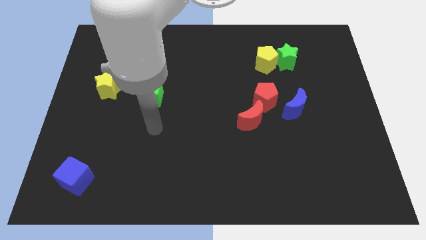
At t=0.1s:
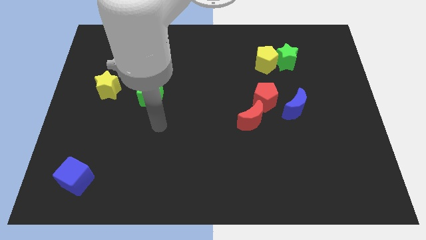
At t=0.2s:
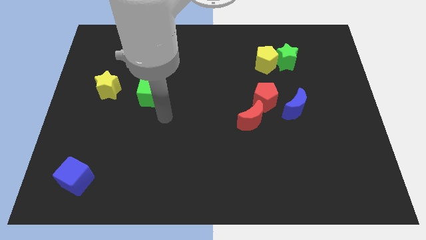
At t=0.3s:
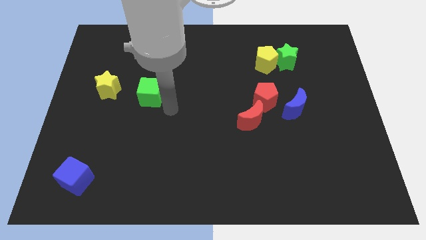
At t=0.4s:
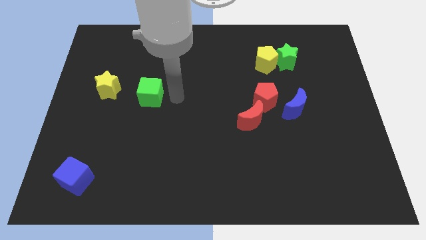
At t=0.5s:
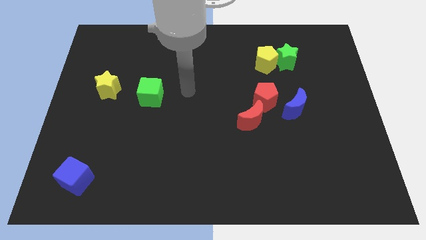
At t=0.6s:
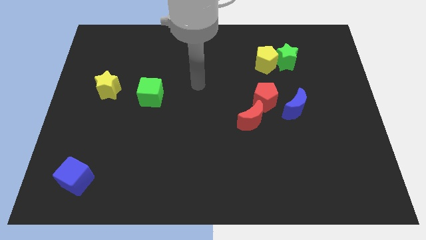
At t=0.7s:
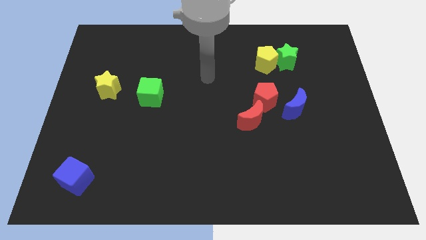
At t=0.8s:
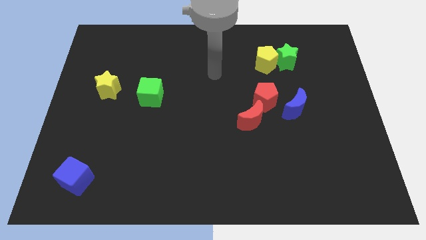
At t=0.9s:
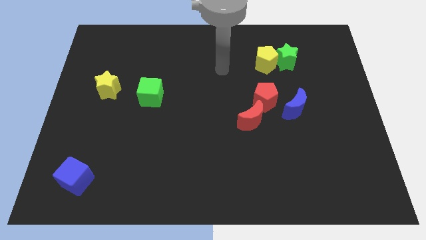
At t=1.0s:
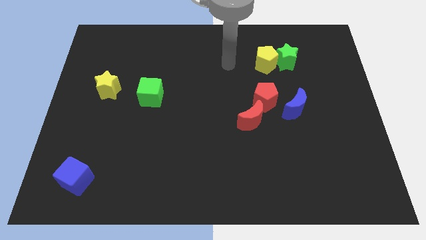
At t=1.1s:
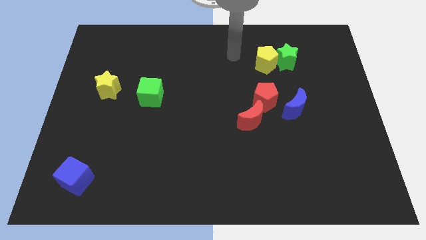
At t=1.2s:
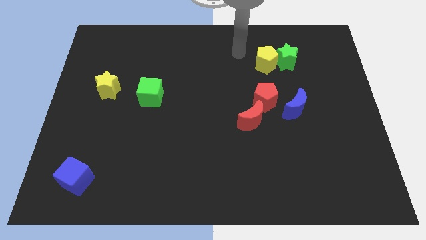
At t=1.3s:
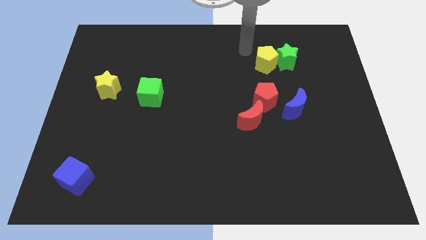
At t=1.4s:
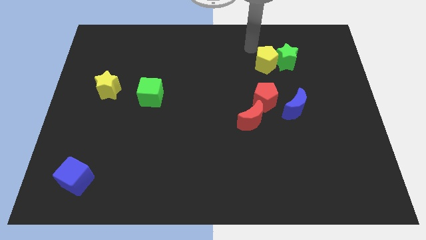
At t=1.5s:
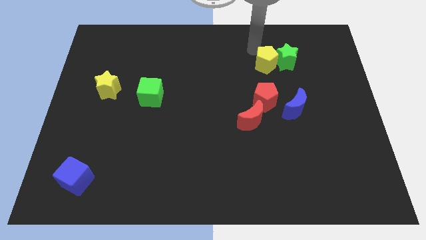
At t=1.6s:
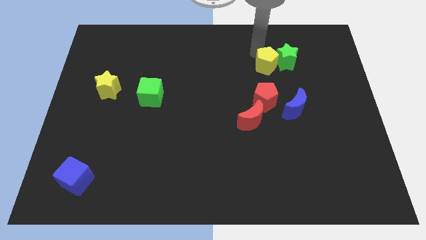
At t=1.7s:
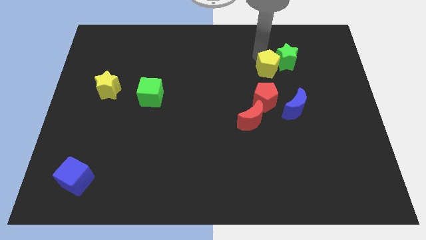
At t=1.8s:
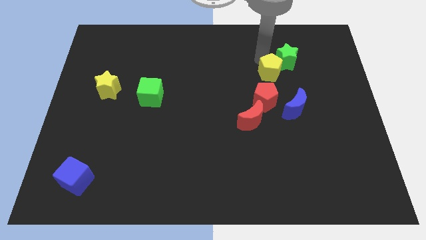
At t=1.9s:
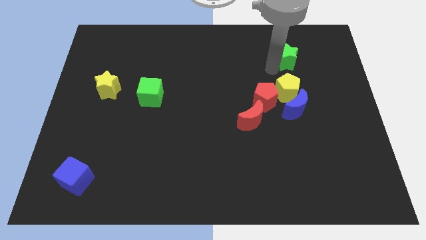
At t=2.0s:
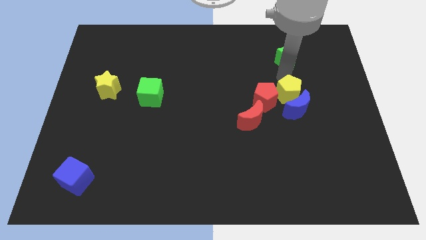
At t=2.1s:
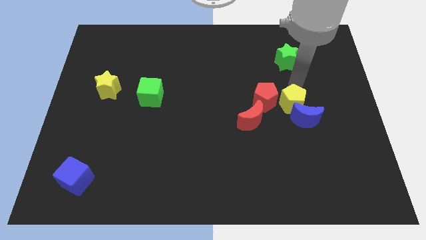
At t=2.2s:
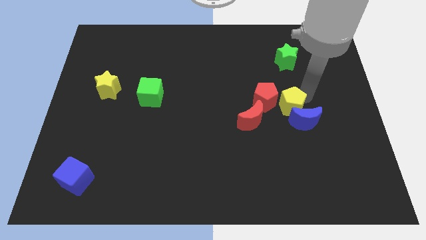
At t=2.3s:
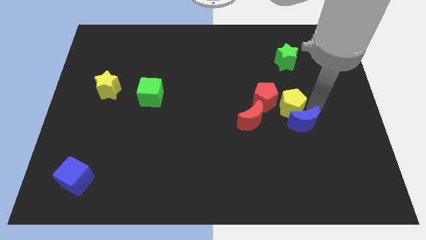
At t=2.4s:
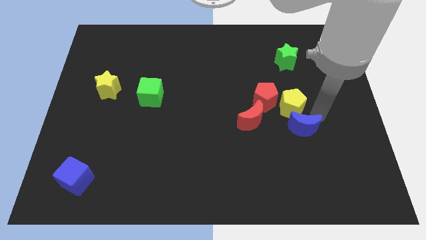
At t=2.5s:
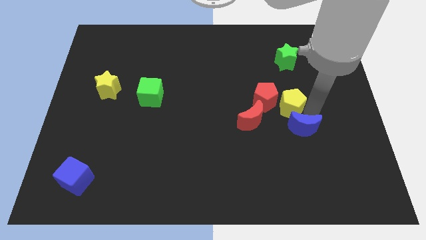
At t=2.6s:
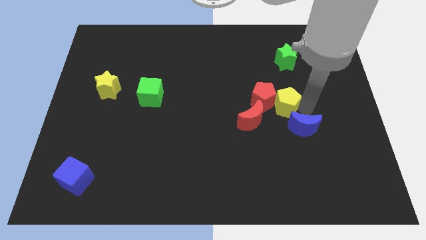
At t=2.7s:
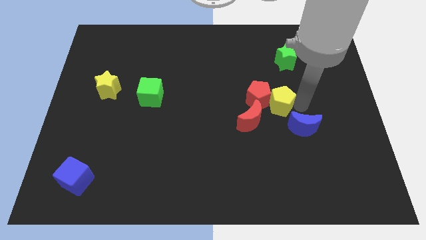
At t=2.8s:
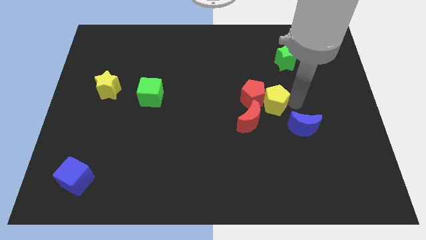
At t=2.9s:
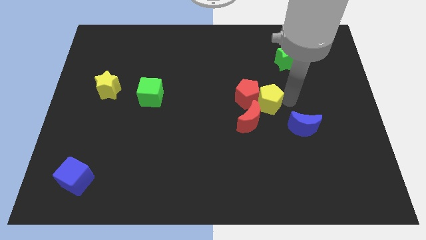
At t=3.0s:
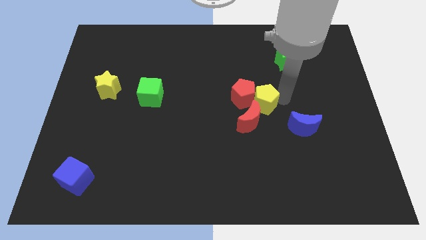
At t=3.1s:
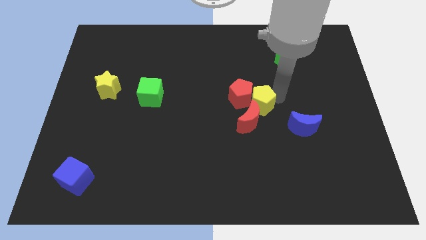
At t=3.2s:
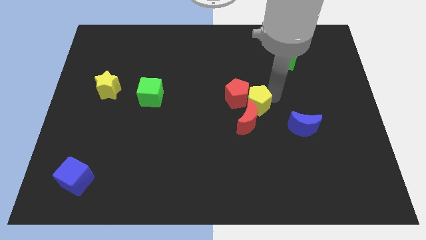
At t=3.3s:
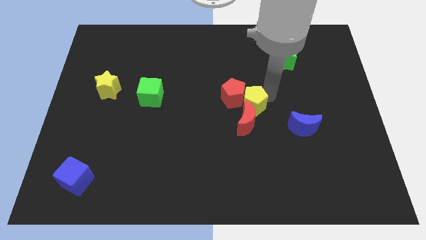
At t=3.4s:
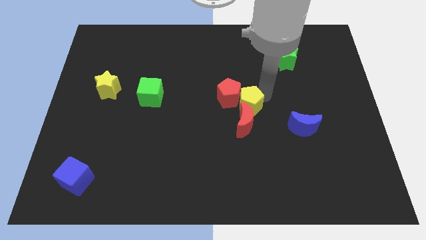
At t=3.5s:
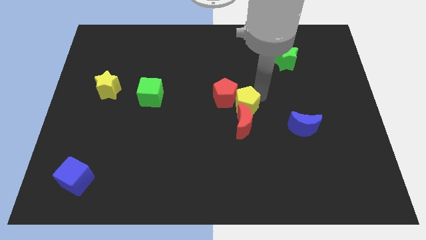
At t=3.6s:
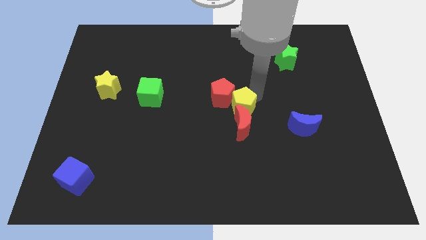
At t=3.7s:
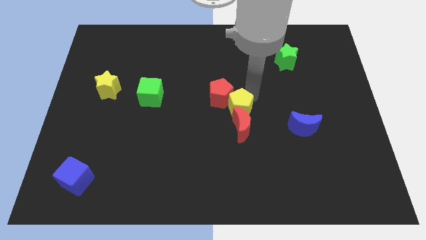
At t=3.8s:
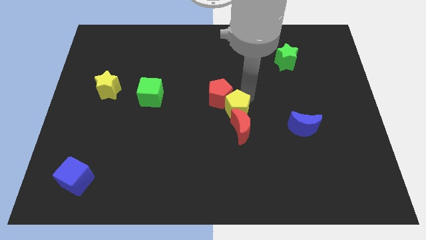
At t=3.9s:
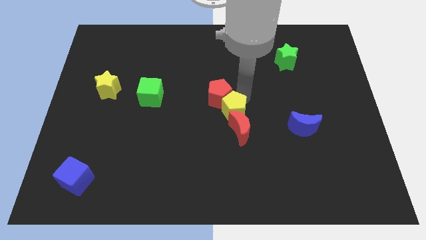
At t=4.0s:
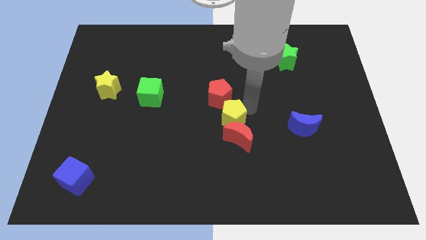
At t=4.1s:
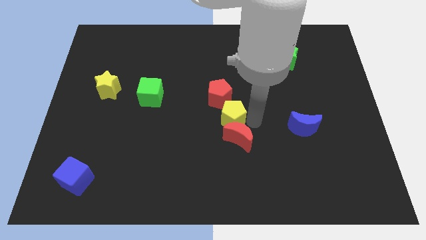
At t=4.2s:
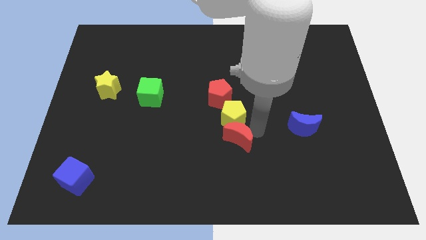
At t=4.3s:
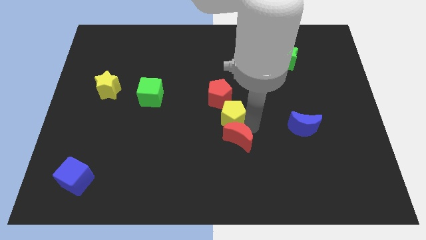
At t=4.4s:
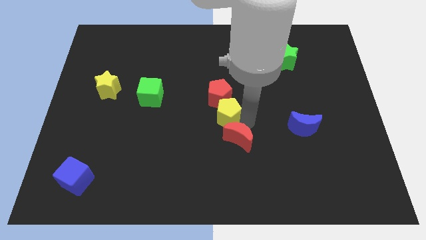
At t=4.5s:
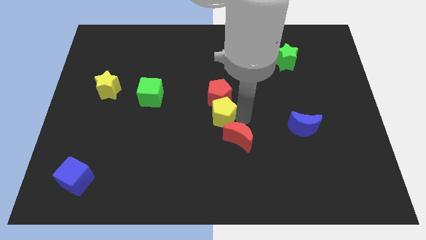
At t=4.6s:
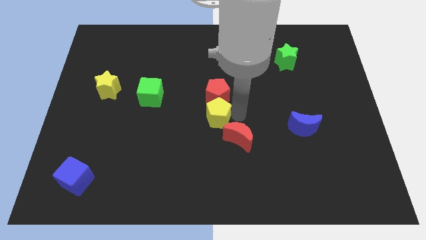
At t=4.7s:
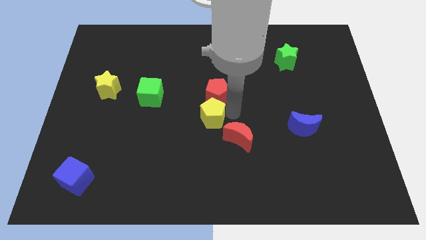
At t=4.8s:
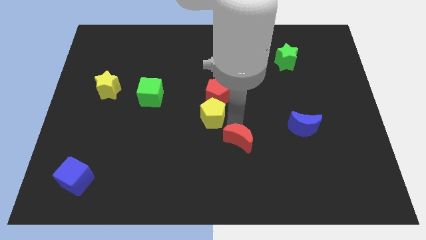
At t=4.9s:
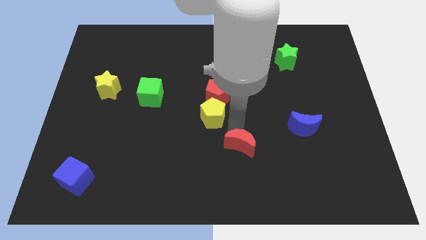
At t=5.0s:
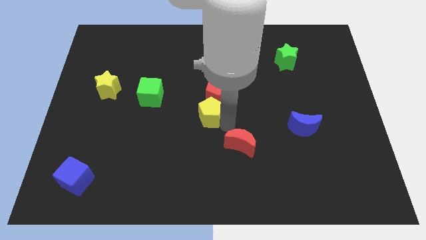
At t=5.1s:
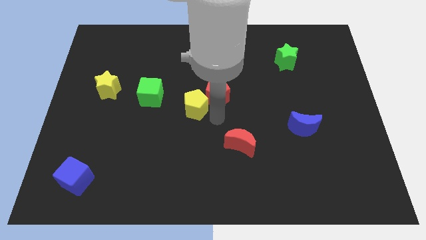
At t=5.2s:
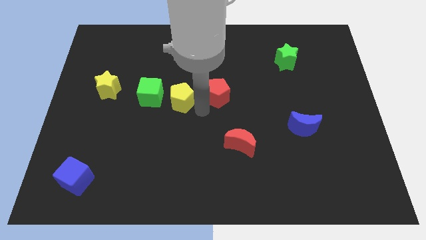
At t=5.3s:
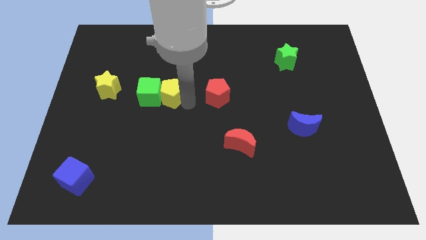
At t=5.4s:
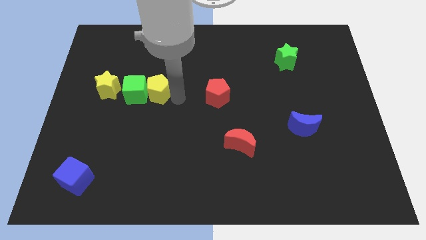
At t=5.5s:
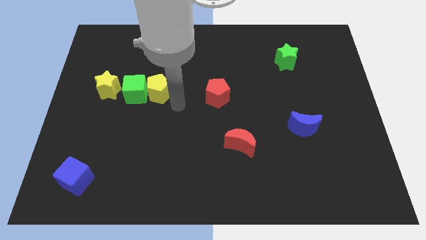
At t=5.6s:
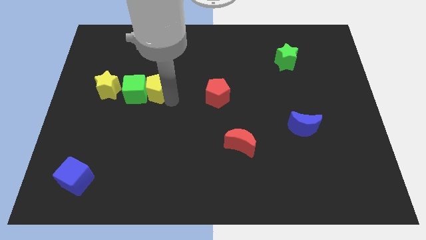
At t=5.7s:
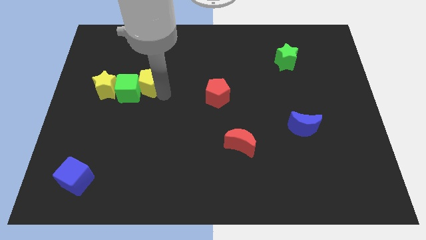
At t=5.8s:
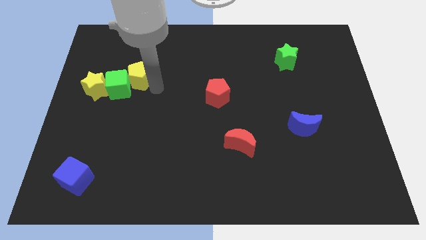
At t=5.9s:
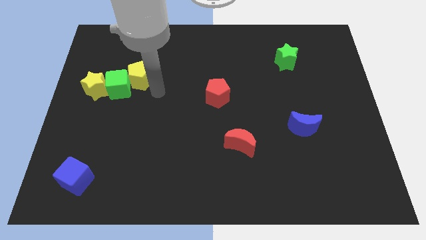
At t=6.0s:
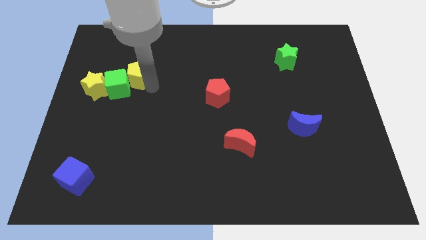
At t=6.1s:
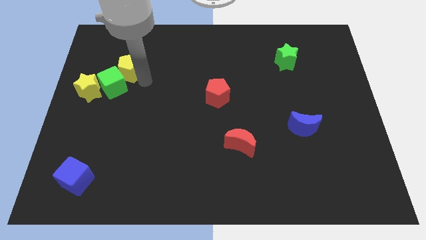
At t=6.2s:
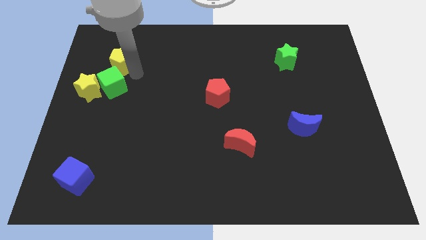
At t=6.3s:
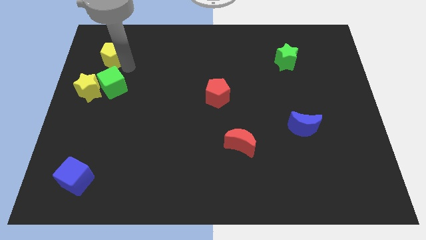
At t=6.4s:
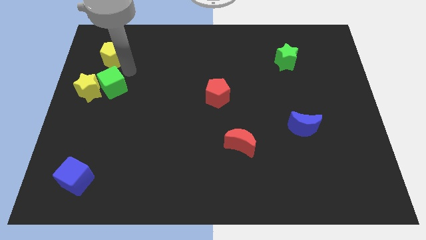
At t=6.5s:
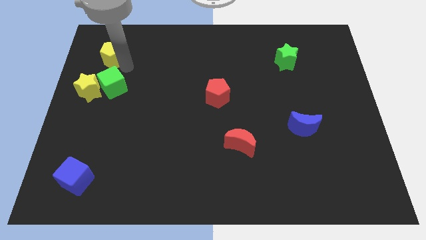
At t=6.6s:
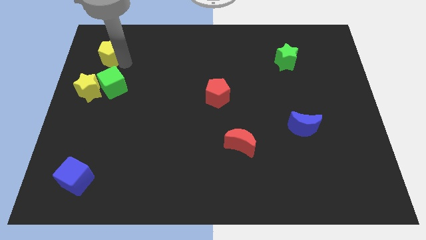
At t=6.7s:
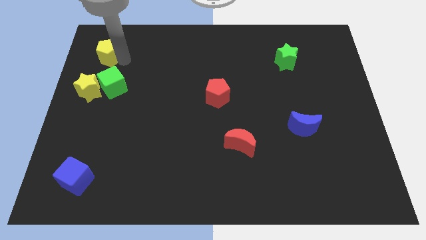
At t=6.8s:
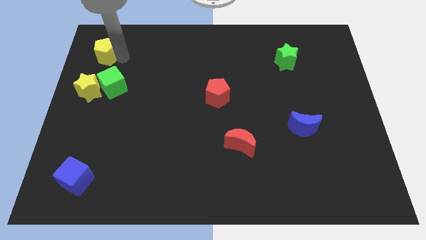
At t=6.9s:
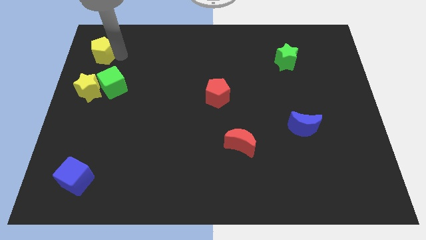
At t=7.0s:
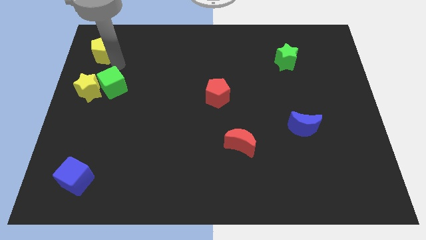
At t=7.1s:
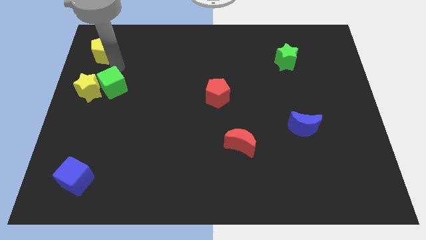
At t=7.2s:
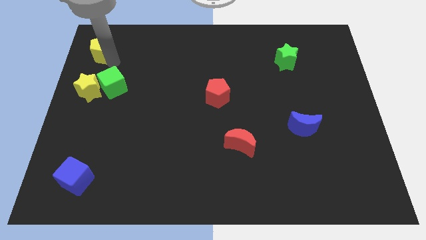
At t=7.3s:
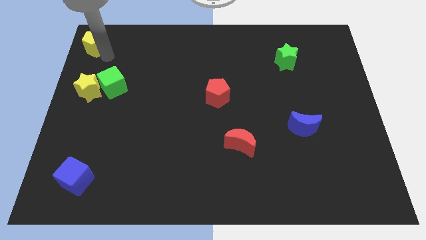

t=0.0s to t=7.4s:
put the yellow pentagon to the upper left corner

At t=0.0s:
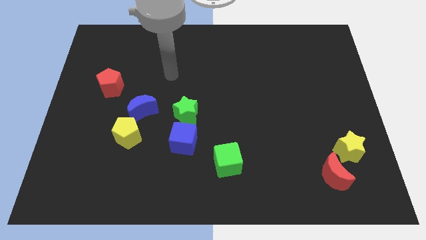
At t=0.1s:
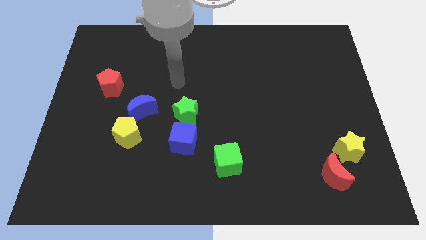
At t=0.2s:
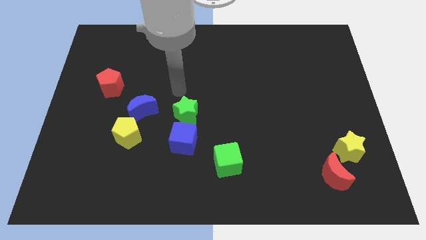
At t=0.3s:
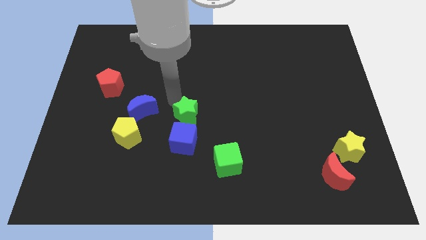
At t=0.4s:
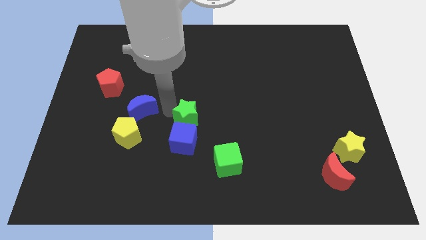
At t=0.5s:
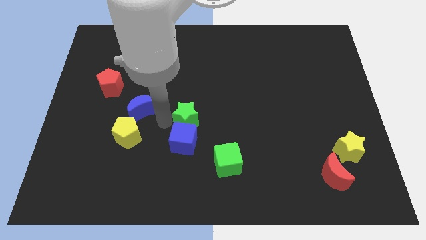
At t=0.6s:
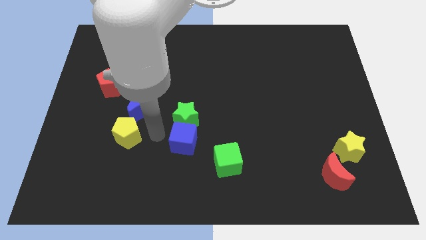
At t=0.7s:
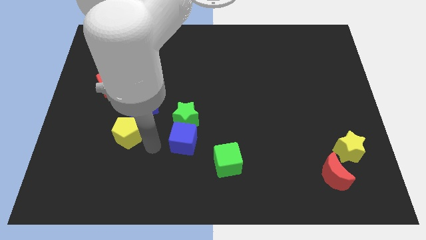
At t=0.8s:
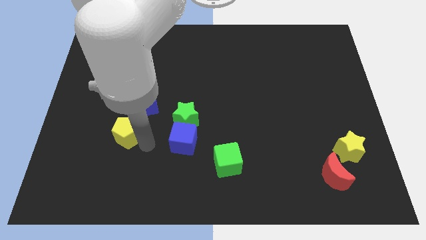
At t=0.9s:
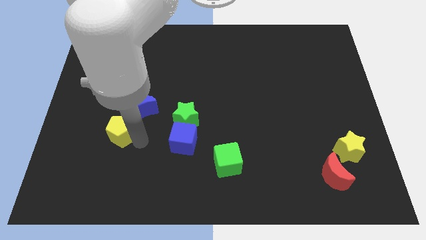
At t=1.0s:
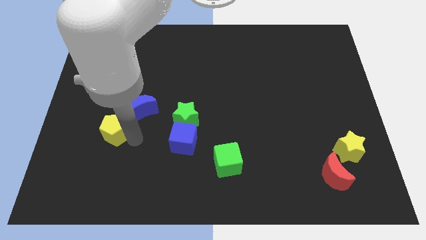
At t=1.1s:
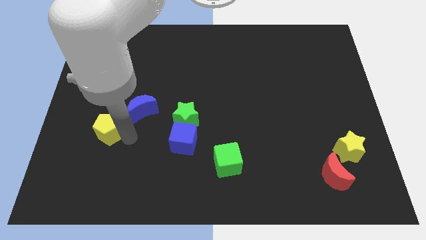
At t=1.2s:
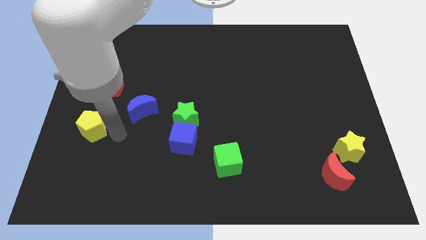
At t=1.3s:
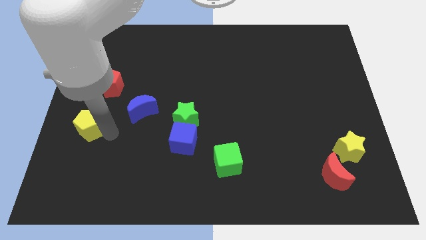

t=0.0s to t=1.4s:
move the yellow pentagon to the center left
